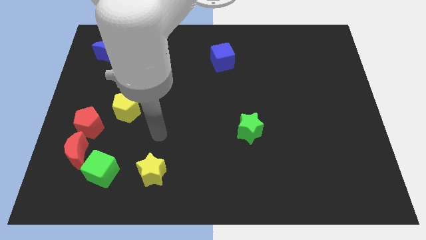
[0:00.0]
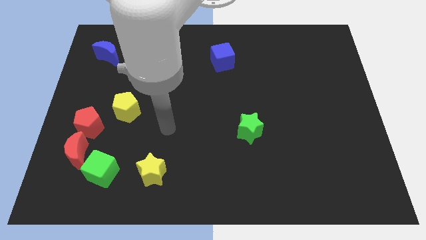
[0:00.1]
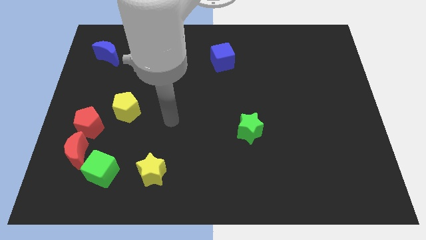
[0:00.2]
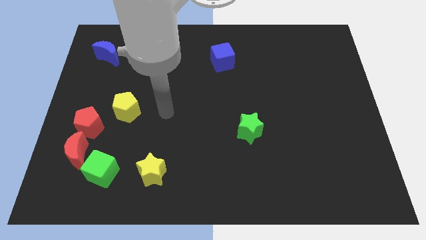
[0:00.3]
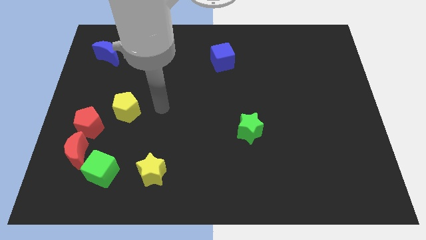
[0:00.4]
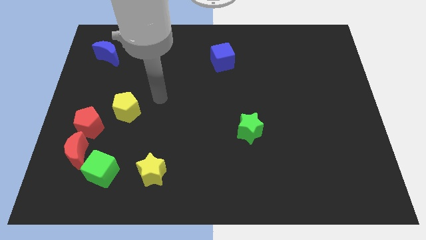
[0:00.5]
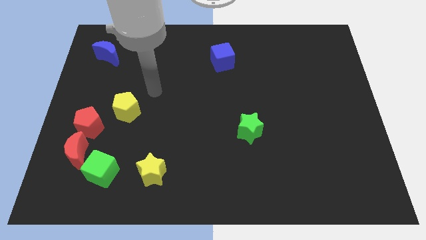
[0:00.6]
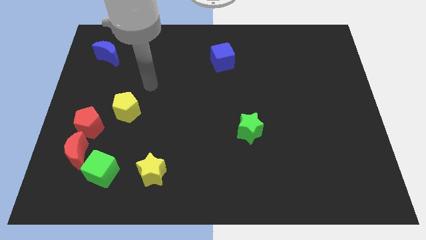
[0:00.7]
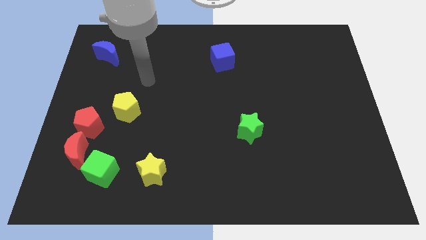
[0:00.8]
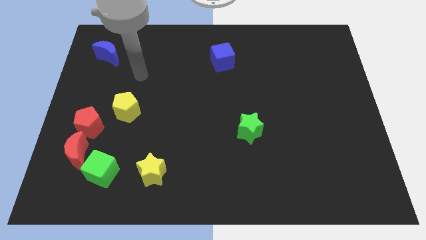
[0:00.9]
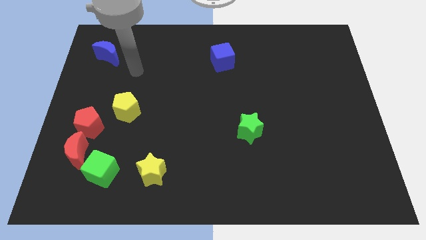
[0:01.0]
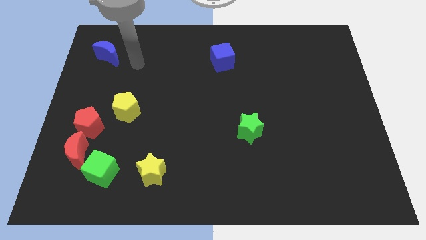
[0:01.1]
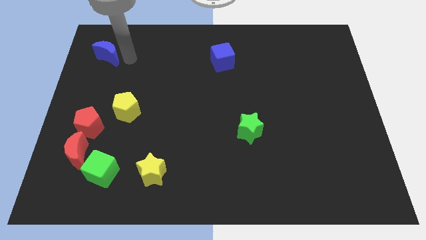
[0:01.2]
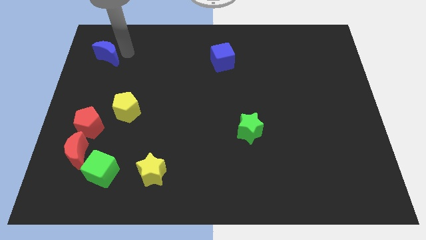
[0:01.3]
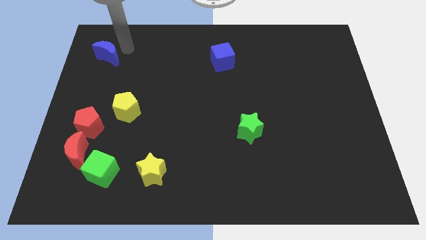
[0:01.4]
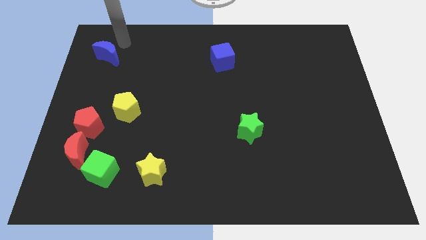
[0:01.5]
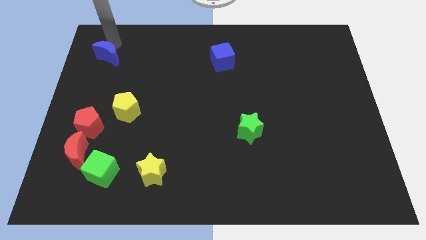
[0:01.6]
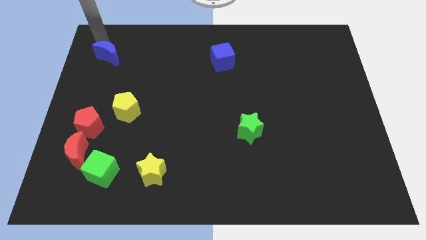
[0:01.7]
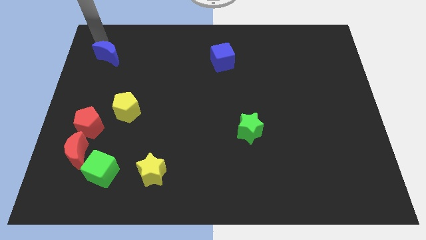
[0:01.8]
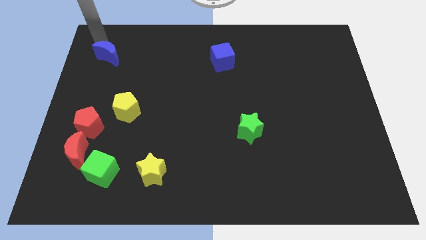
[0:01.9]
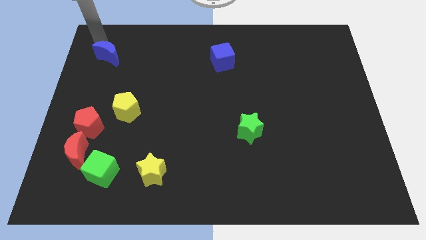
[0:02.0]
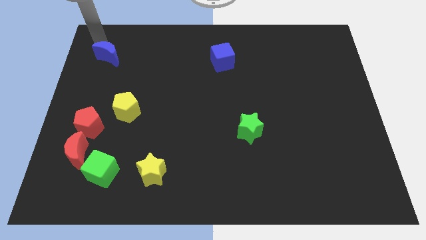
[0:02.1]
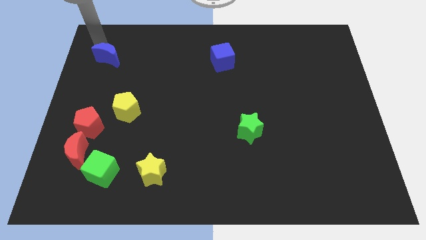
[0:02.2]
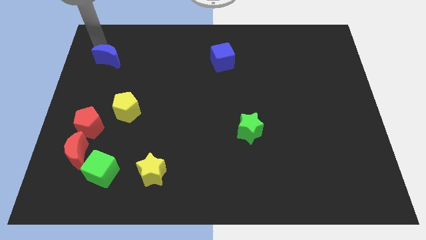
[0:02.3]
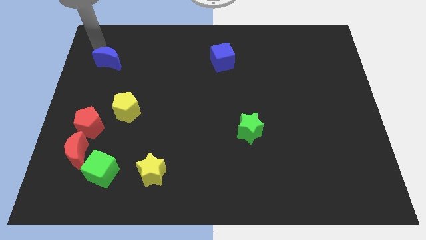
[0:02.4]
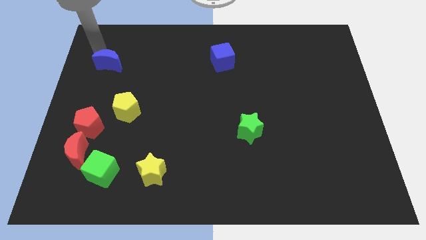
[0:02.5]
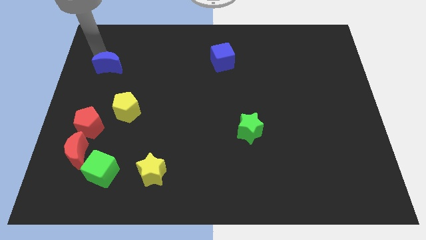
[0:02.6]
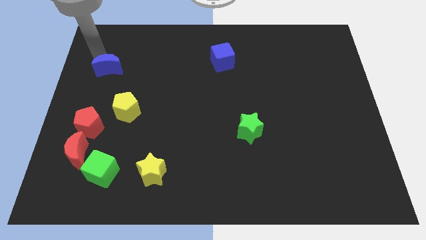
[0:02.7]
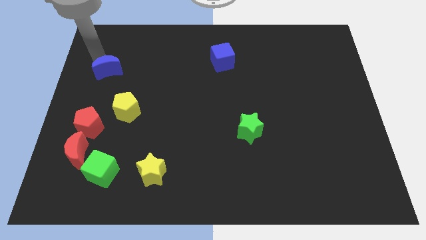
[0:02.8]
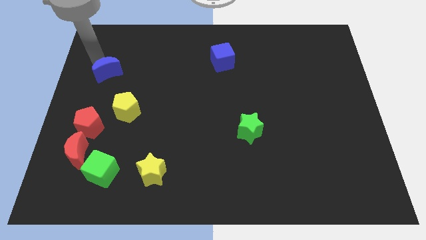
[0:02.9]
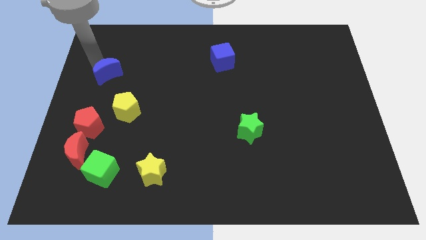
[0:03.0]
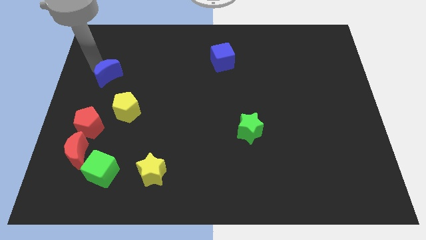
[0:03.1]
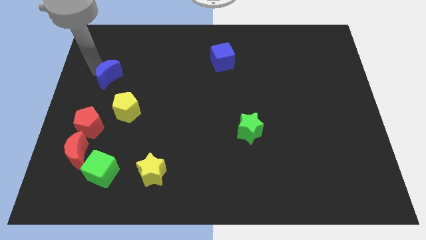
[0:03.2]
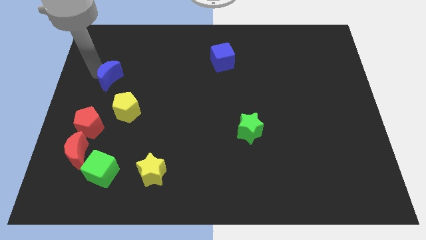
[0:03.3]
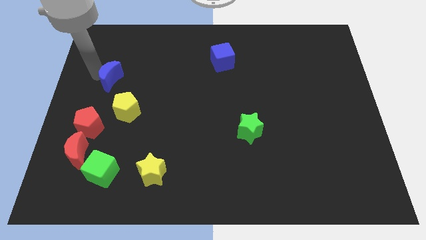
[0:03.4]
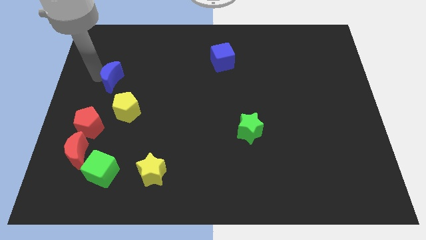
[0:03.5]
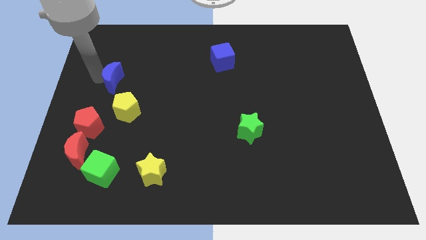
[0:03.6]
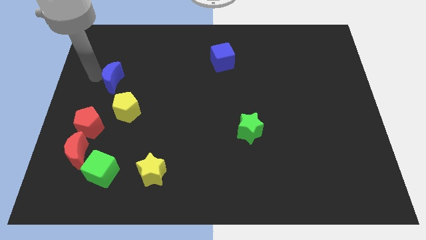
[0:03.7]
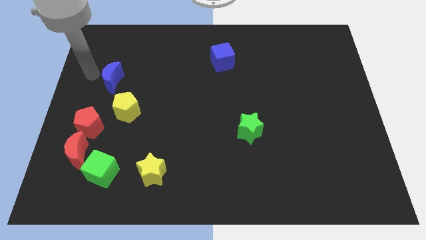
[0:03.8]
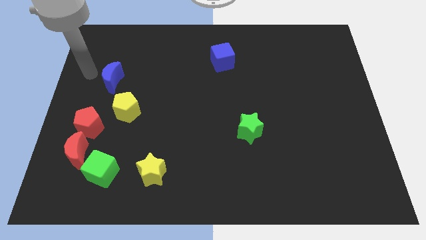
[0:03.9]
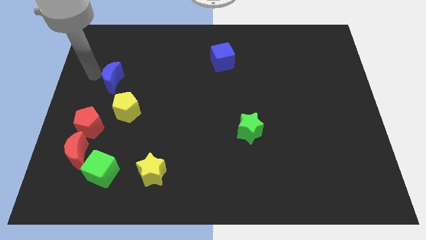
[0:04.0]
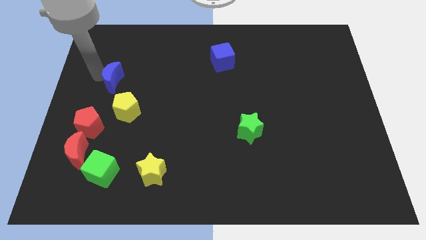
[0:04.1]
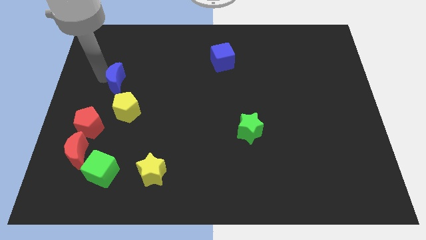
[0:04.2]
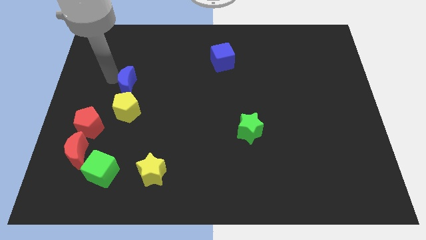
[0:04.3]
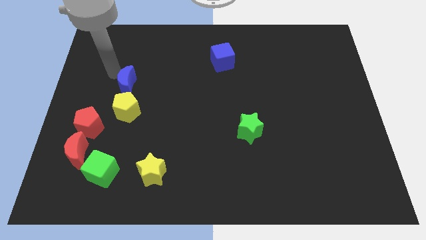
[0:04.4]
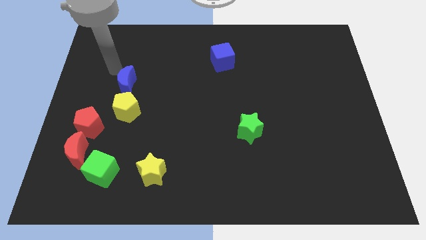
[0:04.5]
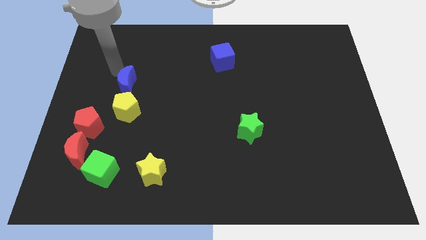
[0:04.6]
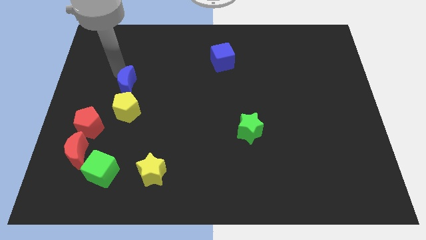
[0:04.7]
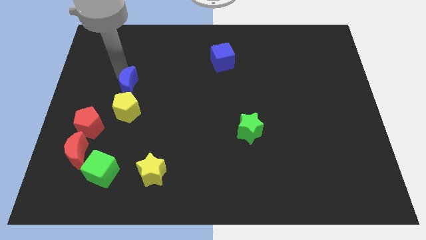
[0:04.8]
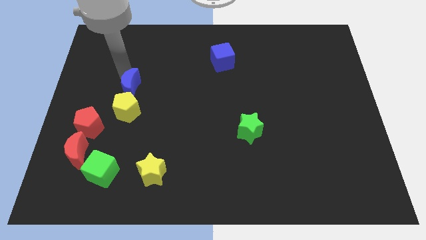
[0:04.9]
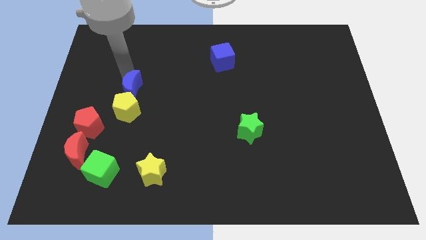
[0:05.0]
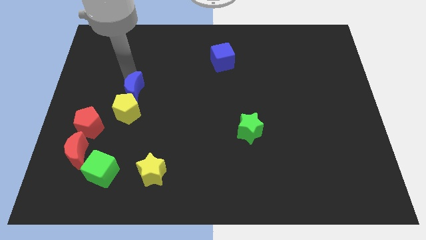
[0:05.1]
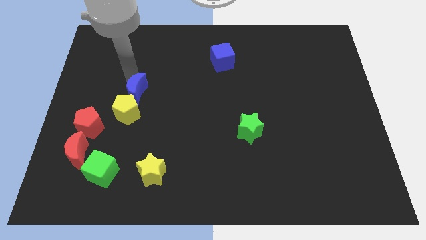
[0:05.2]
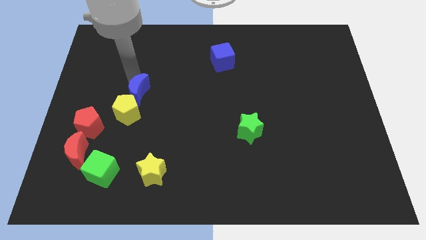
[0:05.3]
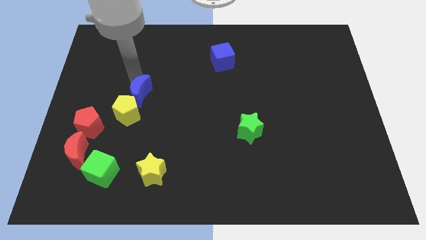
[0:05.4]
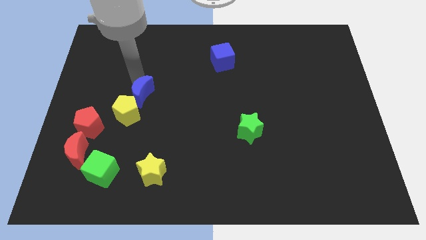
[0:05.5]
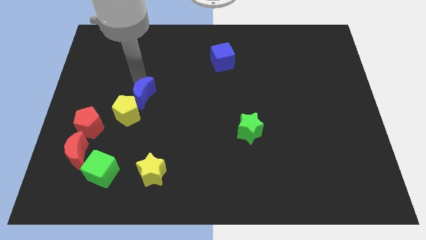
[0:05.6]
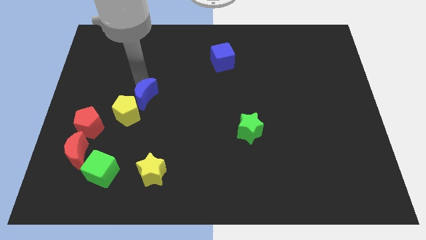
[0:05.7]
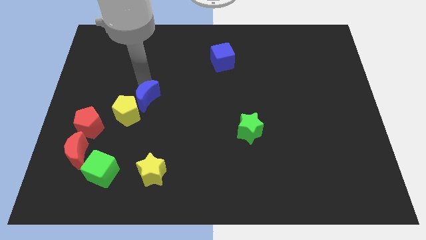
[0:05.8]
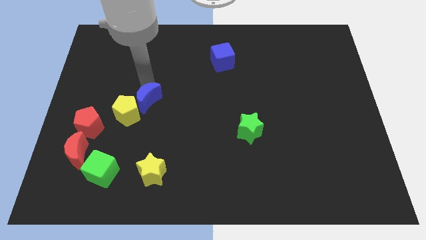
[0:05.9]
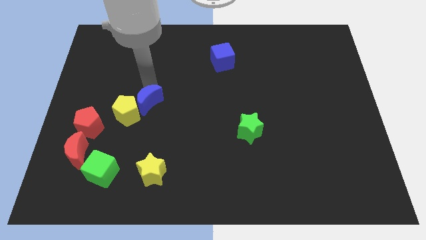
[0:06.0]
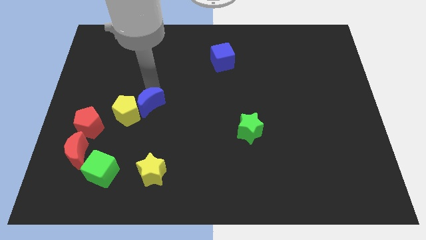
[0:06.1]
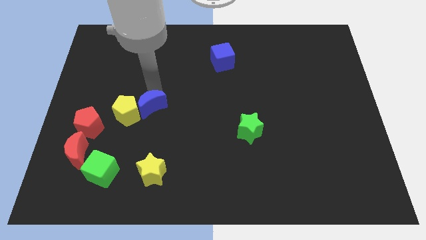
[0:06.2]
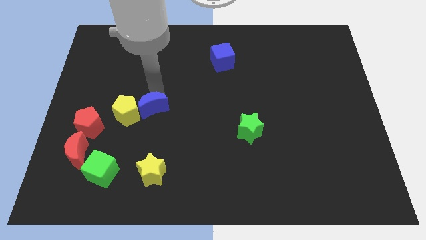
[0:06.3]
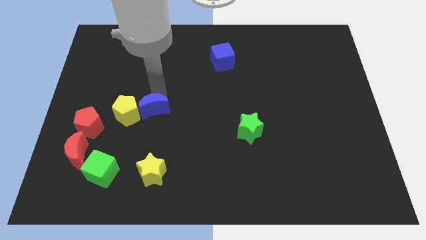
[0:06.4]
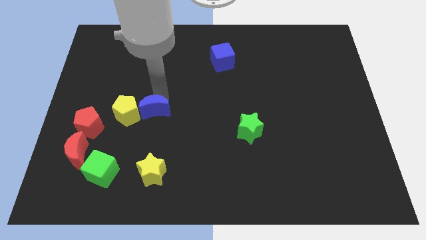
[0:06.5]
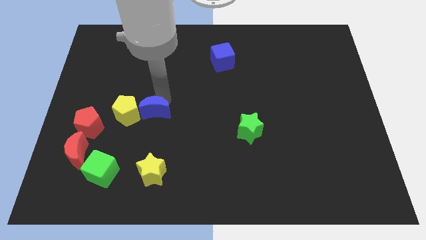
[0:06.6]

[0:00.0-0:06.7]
push the blue moon above the yellow star
